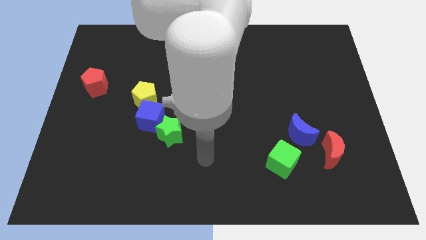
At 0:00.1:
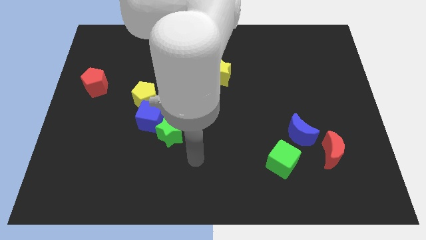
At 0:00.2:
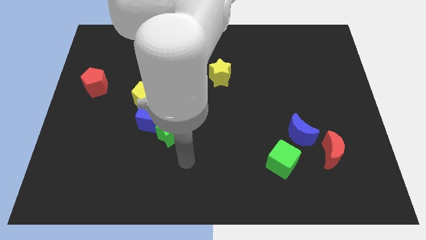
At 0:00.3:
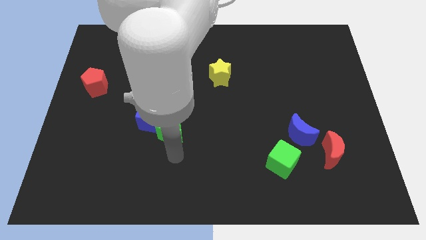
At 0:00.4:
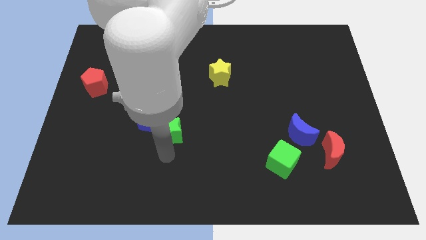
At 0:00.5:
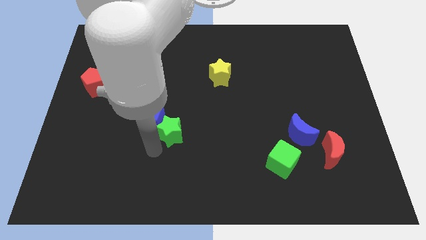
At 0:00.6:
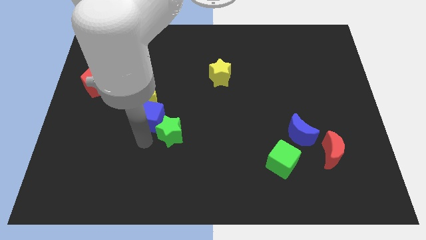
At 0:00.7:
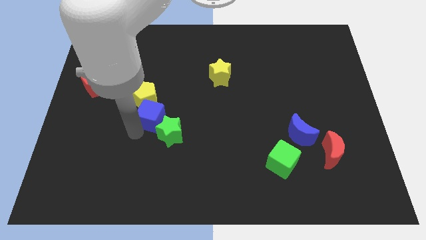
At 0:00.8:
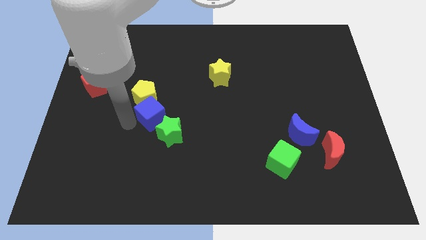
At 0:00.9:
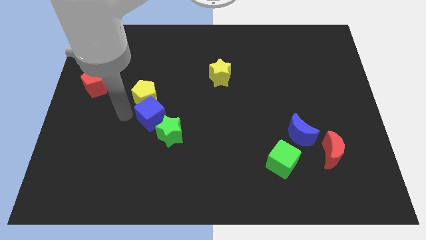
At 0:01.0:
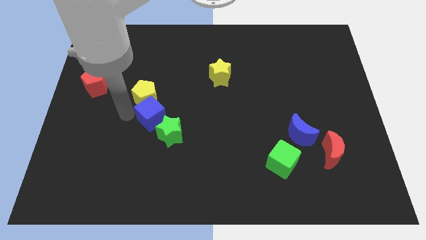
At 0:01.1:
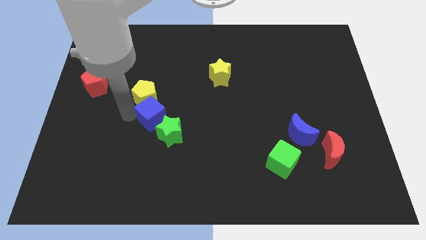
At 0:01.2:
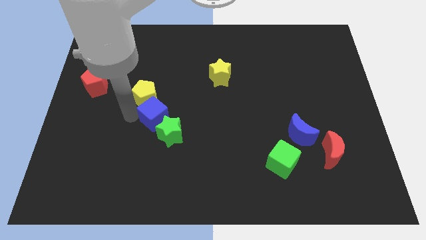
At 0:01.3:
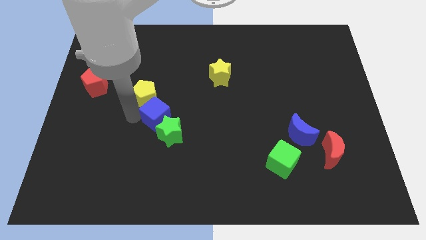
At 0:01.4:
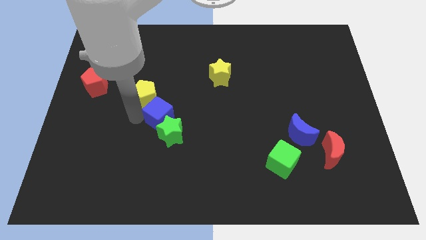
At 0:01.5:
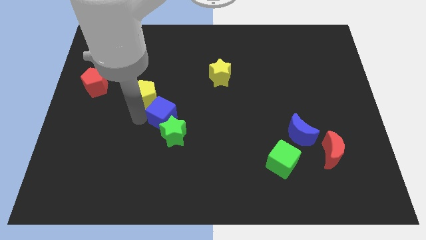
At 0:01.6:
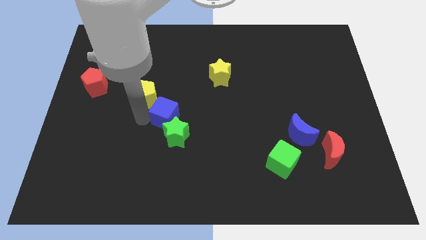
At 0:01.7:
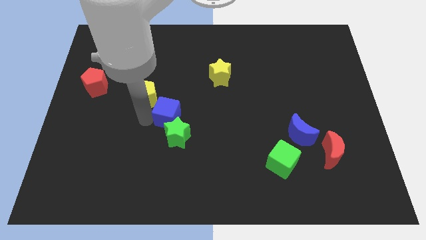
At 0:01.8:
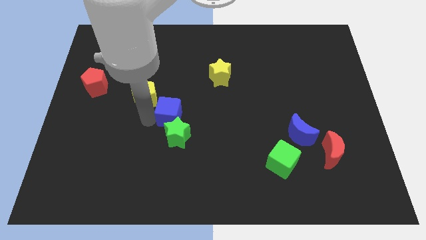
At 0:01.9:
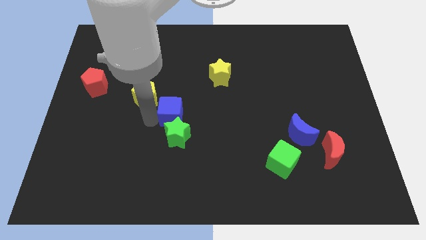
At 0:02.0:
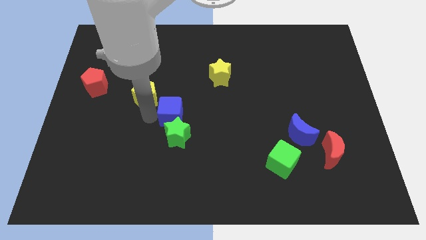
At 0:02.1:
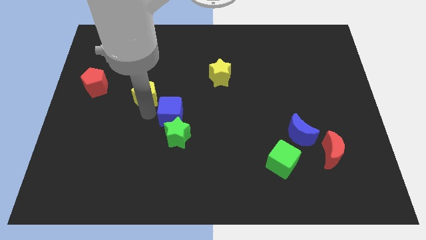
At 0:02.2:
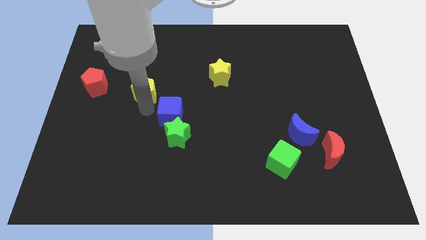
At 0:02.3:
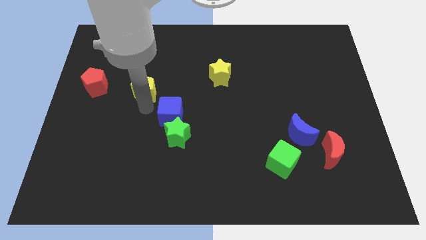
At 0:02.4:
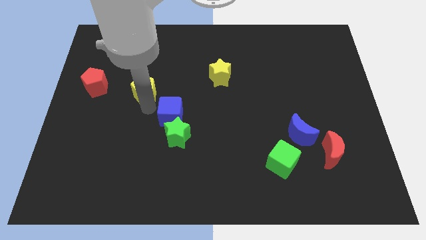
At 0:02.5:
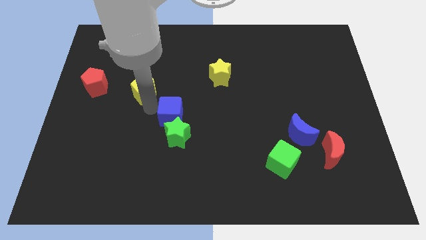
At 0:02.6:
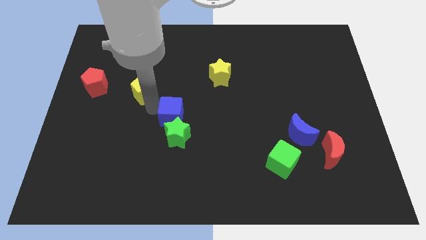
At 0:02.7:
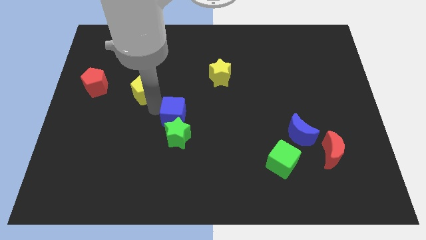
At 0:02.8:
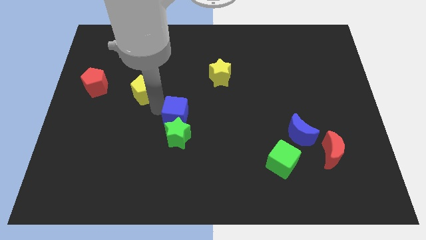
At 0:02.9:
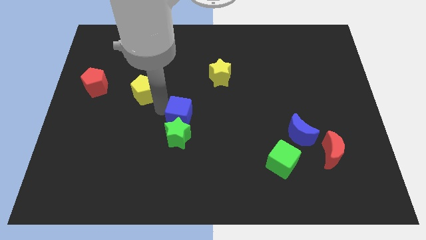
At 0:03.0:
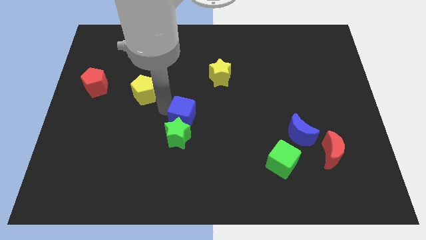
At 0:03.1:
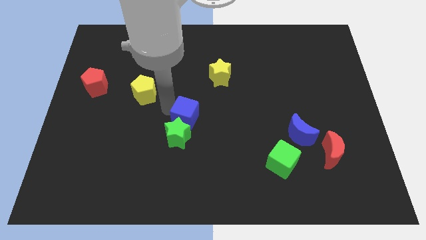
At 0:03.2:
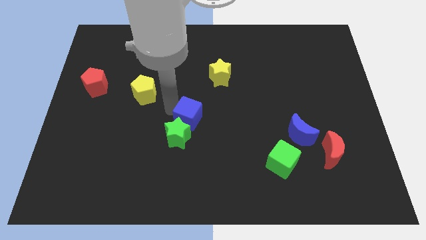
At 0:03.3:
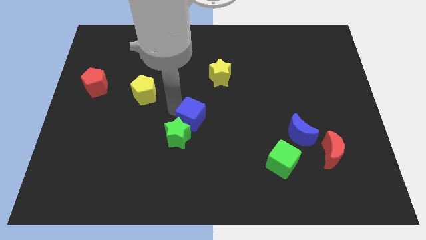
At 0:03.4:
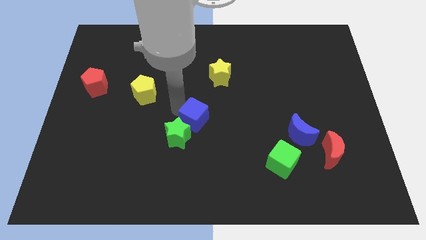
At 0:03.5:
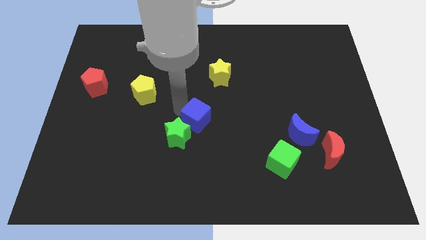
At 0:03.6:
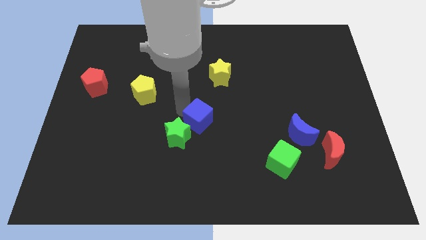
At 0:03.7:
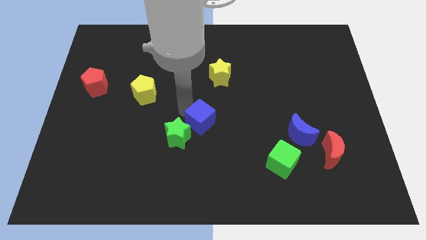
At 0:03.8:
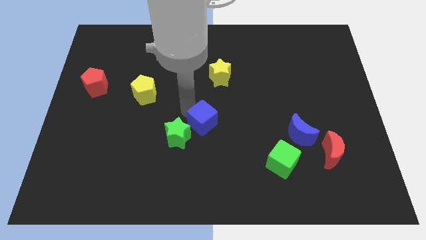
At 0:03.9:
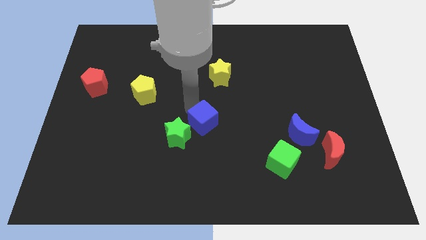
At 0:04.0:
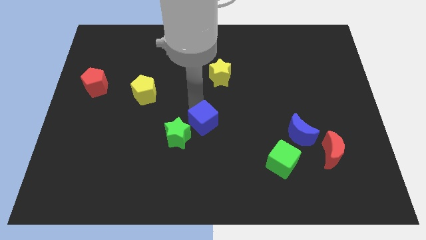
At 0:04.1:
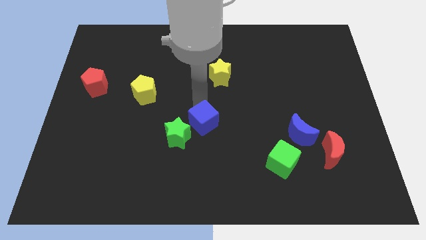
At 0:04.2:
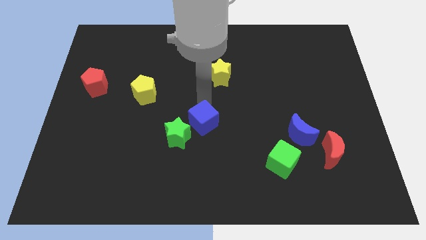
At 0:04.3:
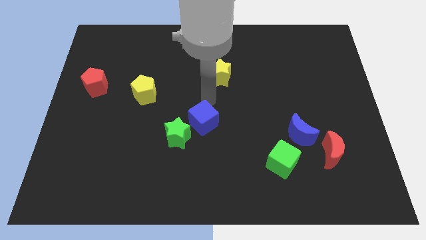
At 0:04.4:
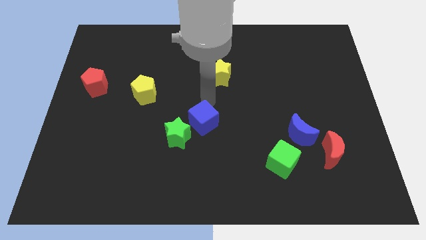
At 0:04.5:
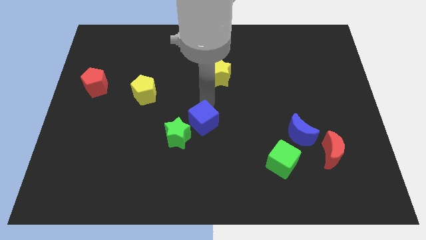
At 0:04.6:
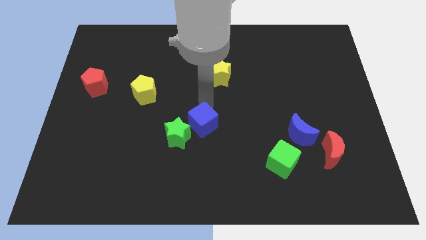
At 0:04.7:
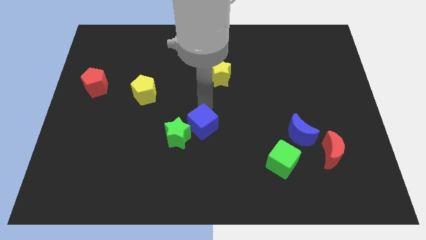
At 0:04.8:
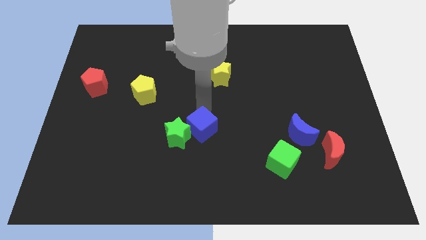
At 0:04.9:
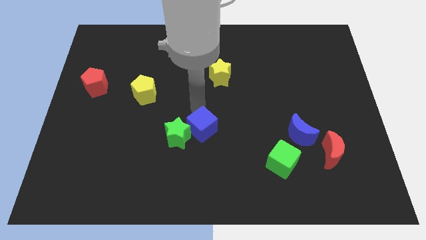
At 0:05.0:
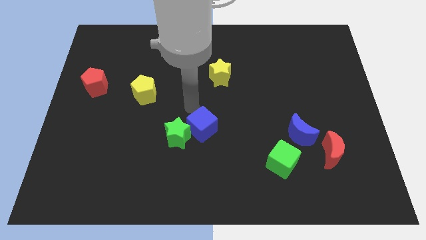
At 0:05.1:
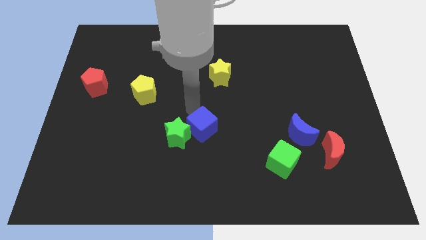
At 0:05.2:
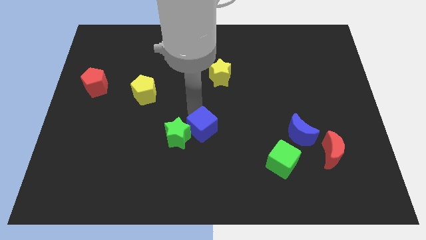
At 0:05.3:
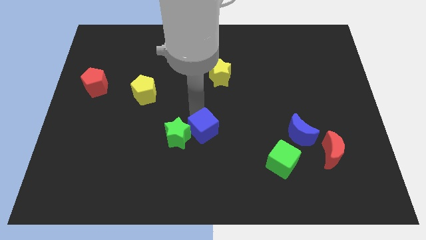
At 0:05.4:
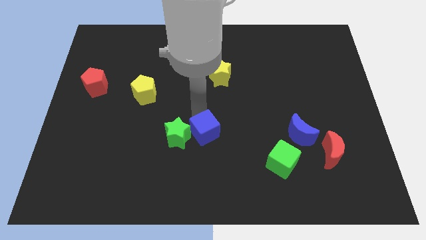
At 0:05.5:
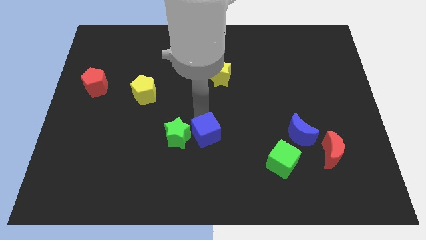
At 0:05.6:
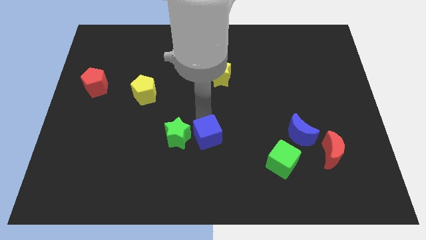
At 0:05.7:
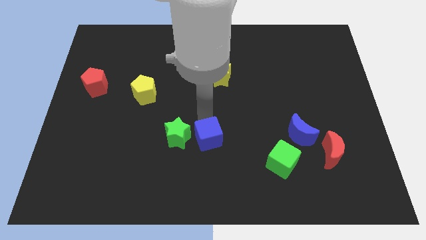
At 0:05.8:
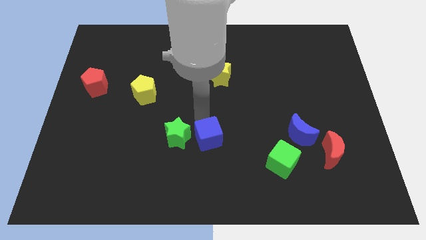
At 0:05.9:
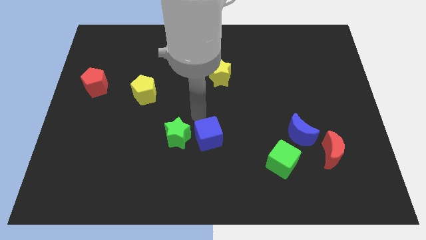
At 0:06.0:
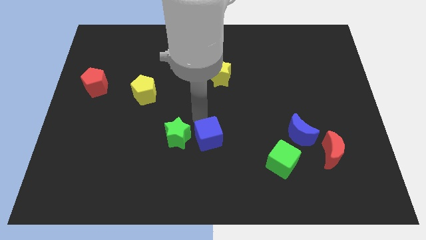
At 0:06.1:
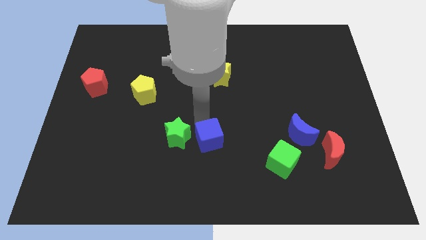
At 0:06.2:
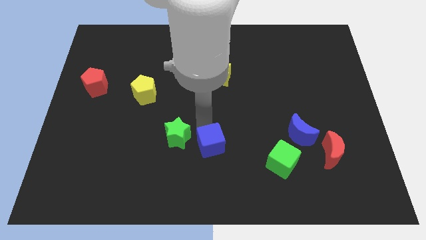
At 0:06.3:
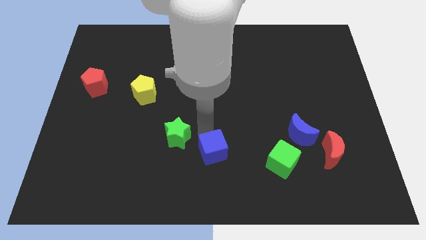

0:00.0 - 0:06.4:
put the blue cube to the left side of the green cube
